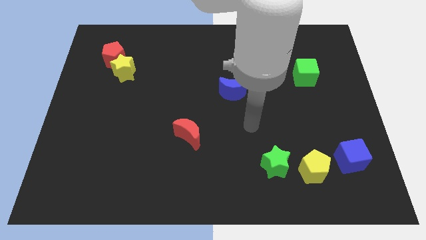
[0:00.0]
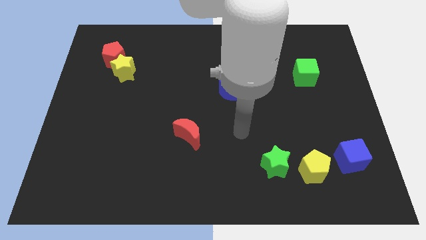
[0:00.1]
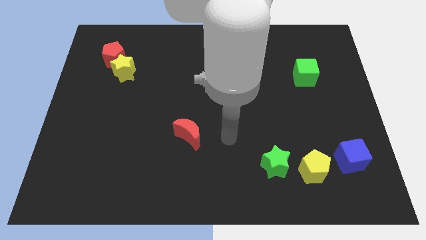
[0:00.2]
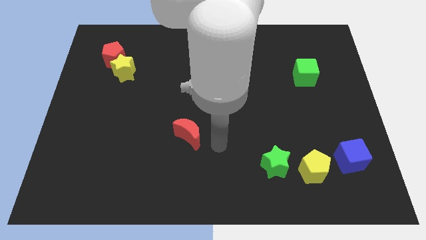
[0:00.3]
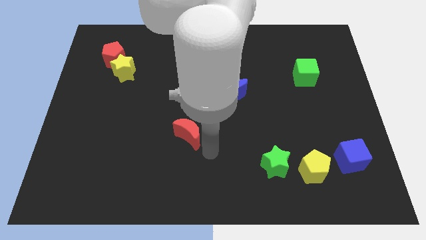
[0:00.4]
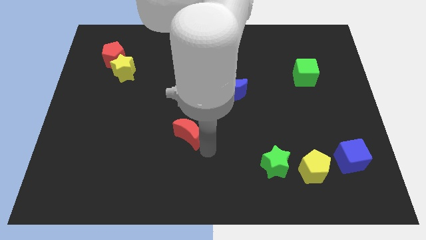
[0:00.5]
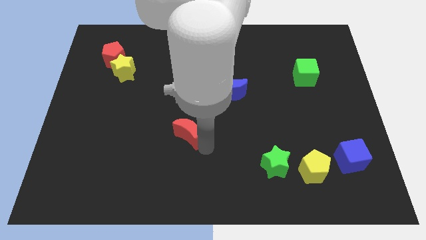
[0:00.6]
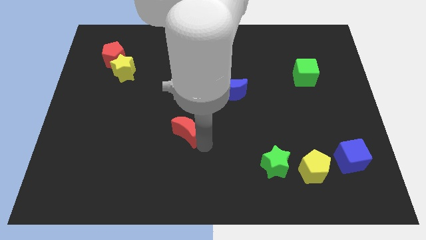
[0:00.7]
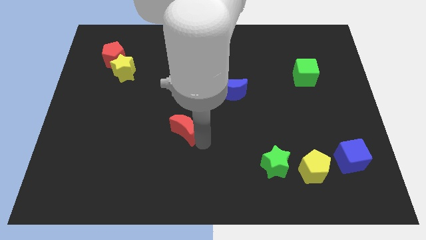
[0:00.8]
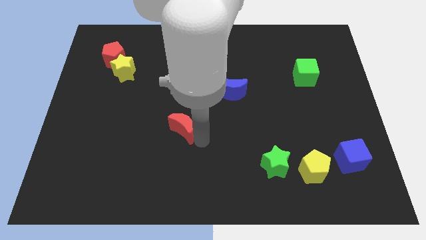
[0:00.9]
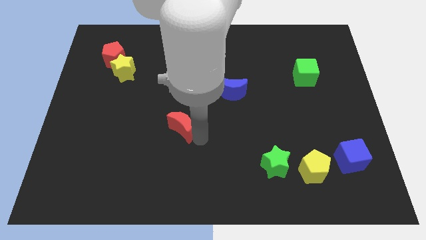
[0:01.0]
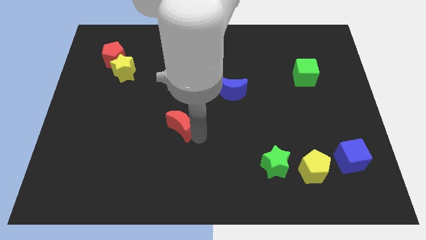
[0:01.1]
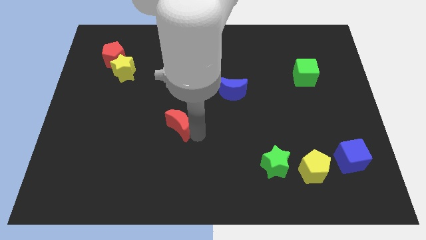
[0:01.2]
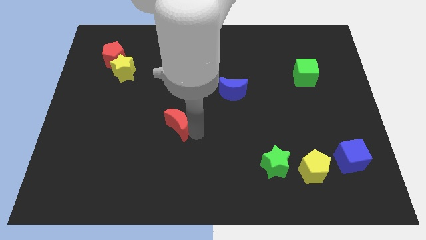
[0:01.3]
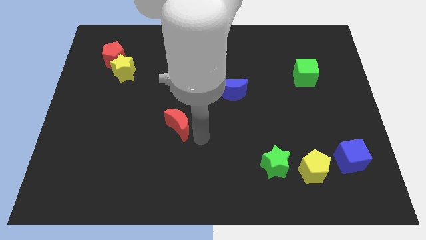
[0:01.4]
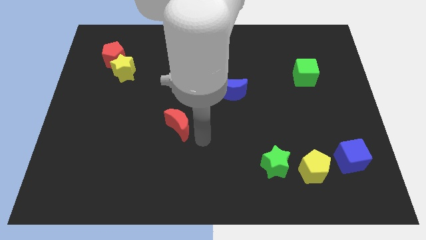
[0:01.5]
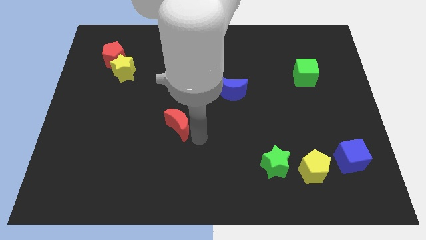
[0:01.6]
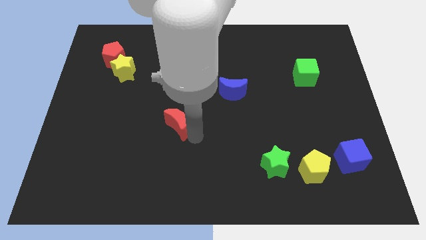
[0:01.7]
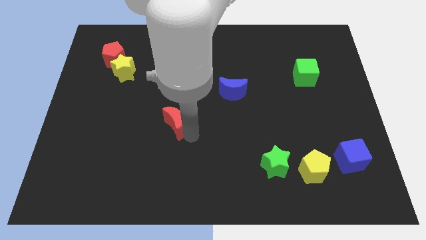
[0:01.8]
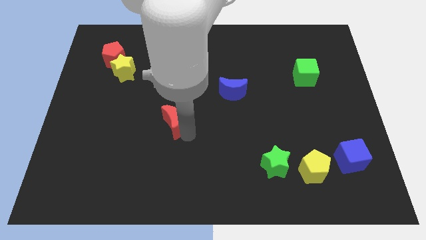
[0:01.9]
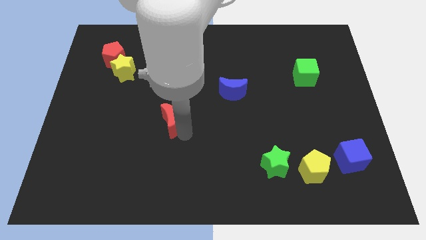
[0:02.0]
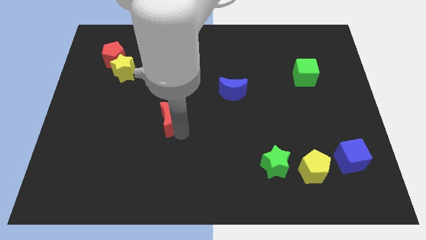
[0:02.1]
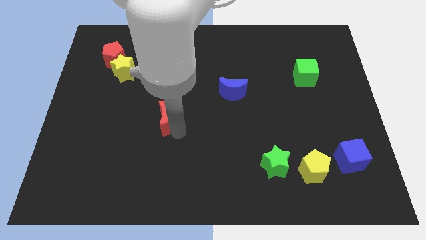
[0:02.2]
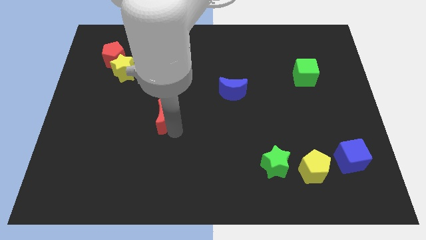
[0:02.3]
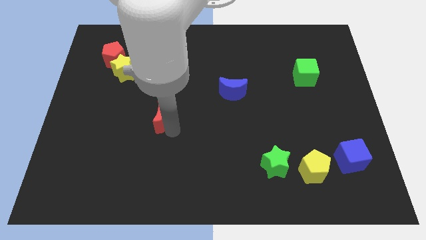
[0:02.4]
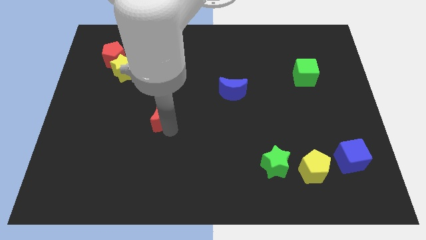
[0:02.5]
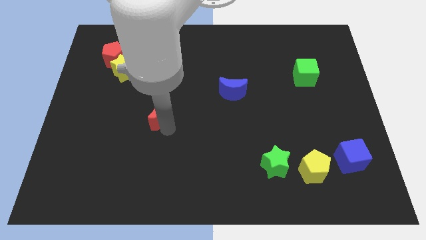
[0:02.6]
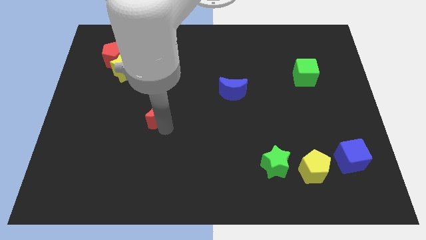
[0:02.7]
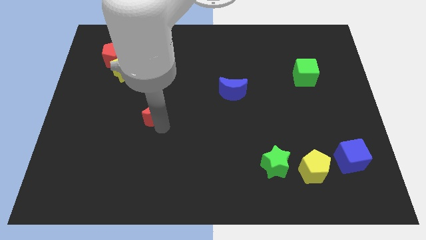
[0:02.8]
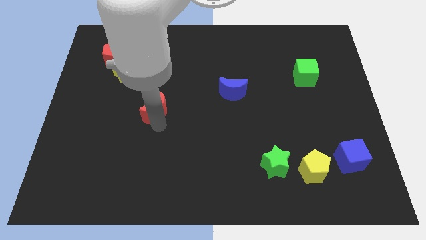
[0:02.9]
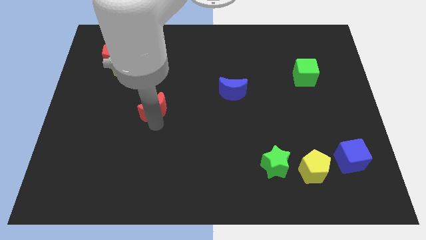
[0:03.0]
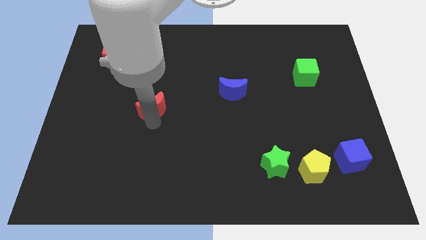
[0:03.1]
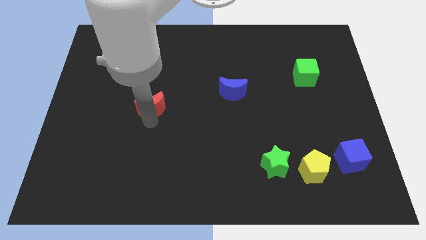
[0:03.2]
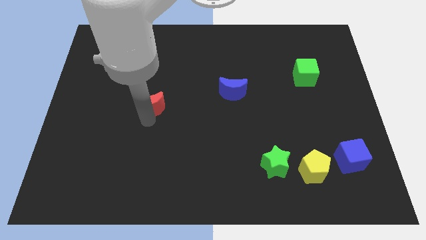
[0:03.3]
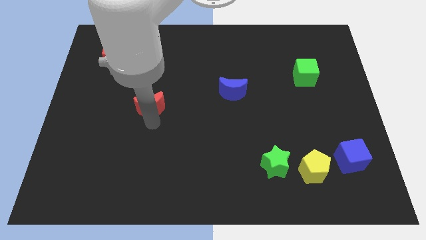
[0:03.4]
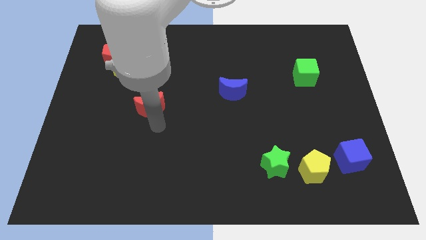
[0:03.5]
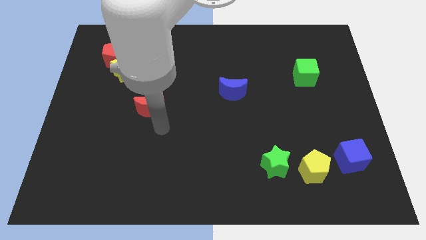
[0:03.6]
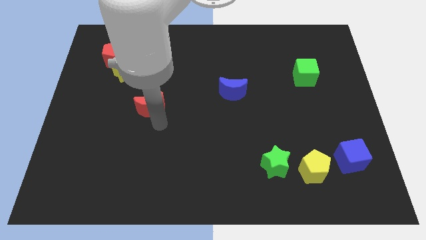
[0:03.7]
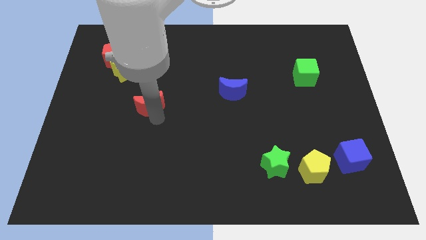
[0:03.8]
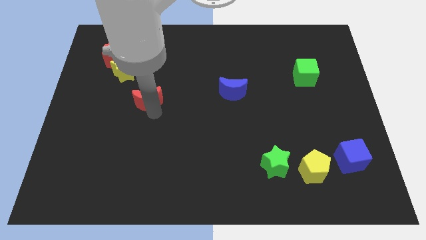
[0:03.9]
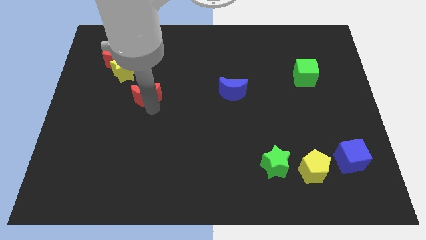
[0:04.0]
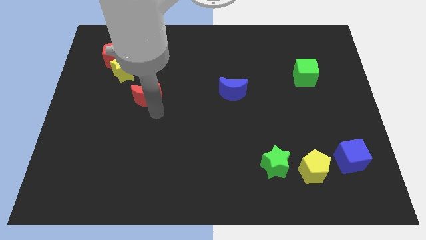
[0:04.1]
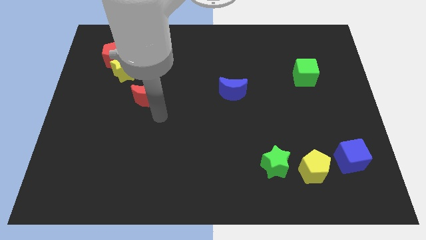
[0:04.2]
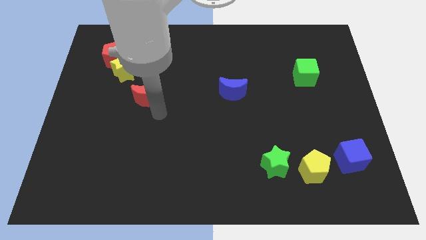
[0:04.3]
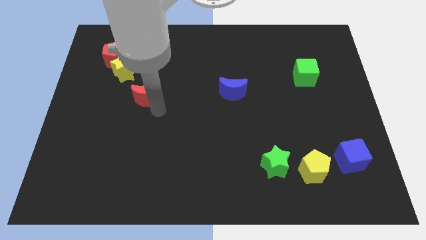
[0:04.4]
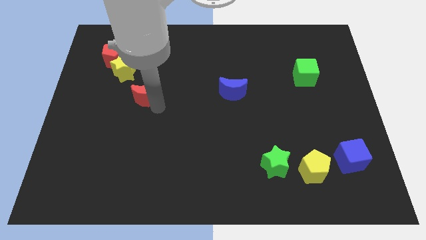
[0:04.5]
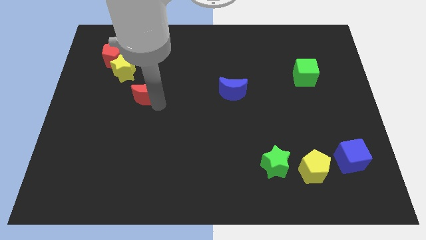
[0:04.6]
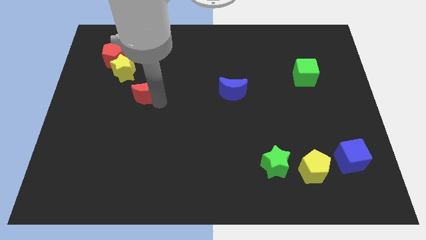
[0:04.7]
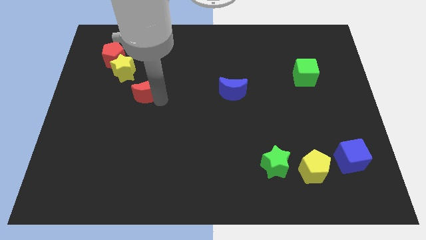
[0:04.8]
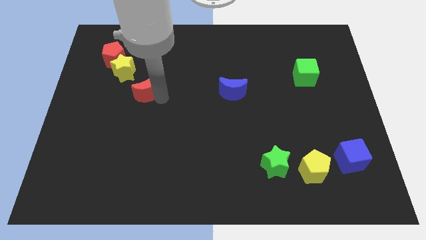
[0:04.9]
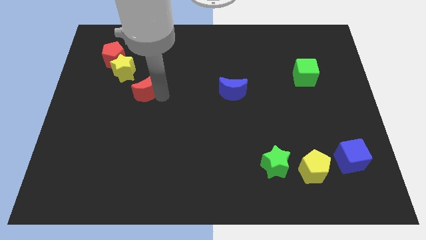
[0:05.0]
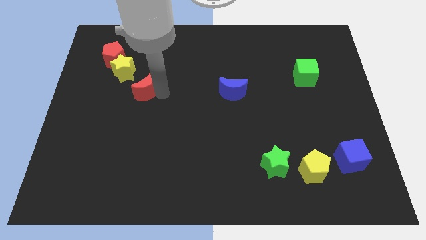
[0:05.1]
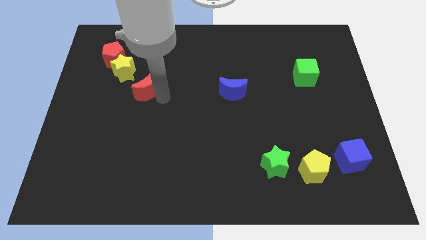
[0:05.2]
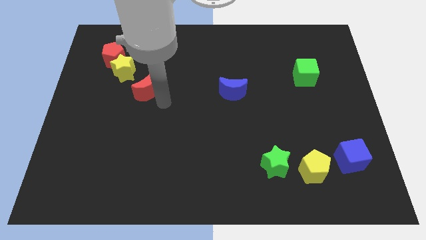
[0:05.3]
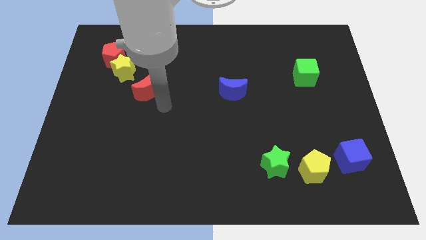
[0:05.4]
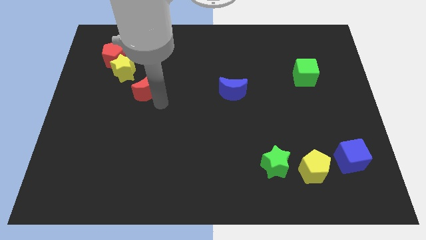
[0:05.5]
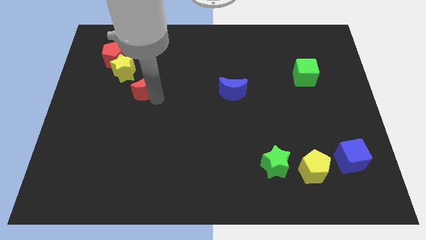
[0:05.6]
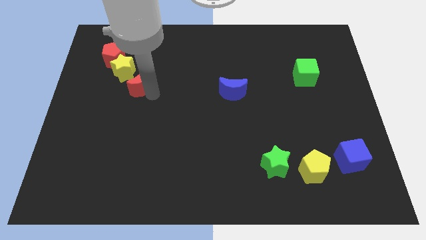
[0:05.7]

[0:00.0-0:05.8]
move the red moon to the bottom right of the red pentagon

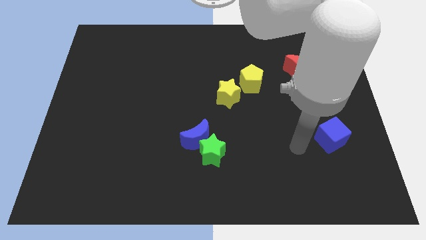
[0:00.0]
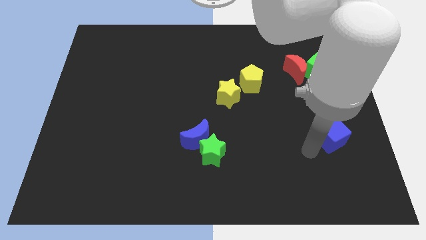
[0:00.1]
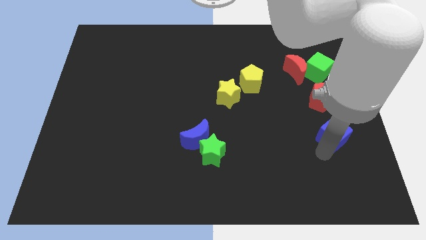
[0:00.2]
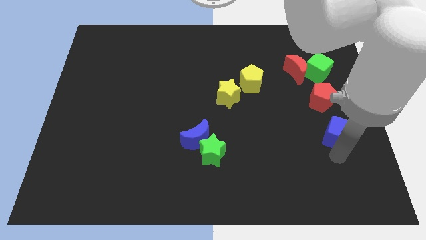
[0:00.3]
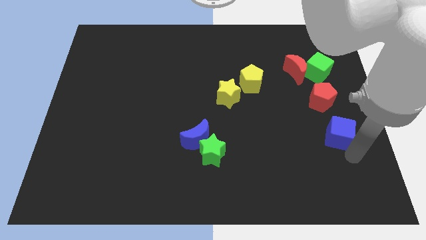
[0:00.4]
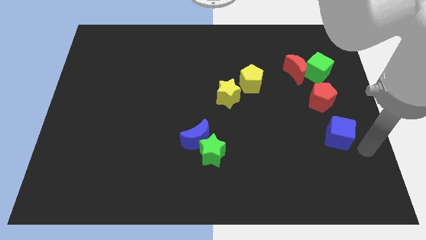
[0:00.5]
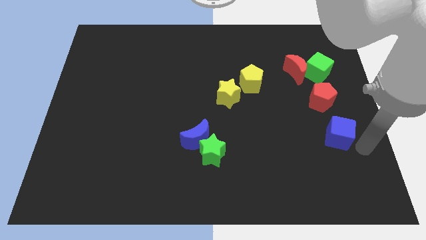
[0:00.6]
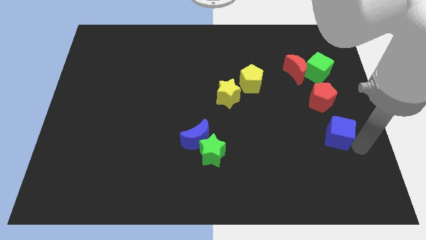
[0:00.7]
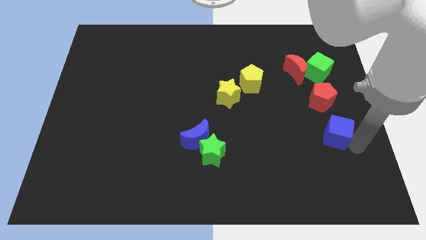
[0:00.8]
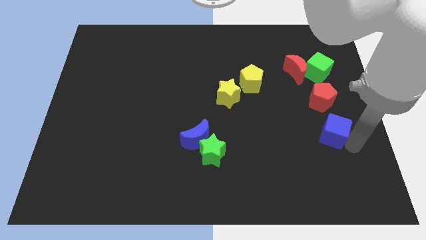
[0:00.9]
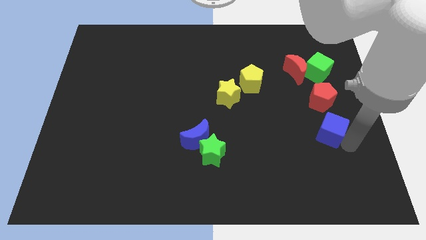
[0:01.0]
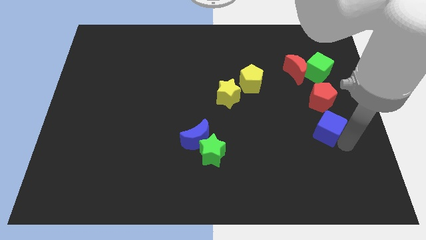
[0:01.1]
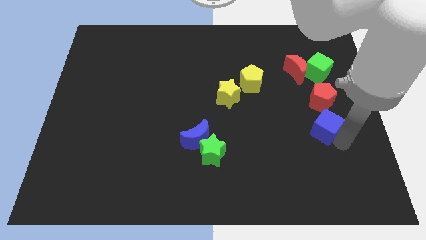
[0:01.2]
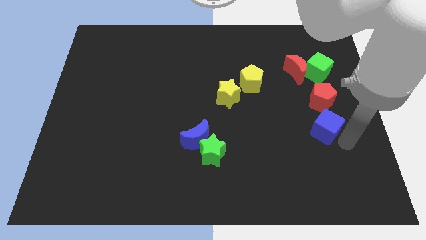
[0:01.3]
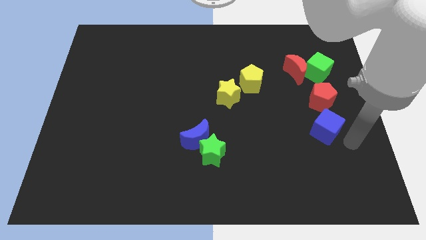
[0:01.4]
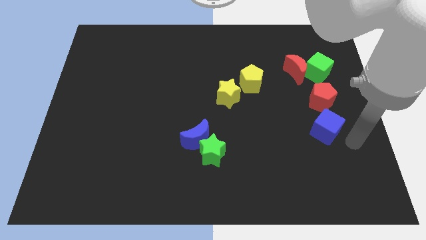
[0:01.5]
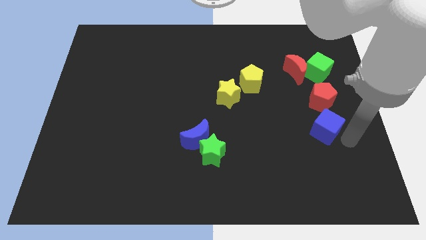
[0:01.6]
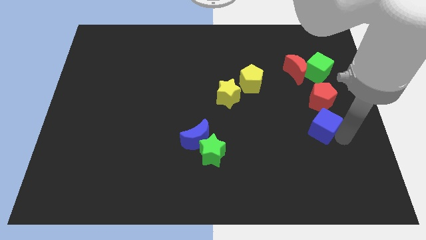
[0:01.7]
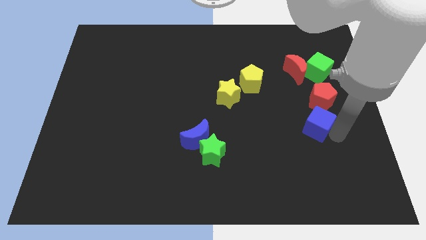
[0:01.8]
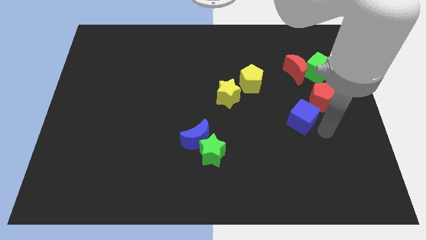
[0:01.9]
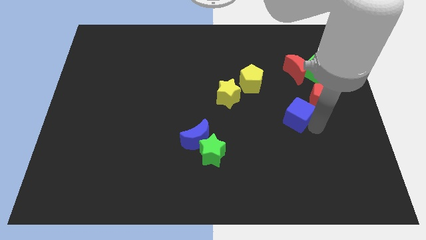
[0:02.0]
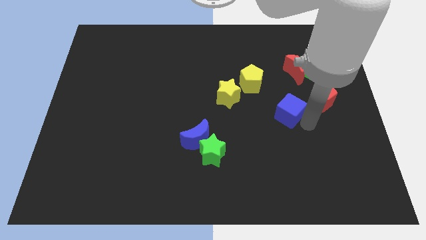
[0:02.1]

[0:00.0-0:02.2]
push the blue cube to the bottom right of the yellow pentagon

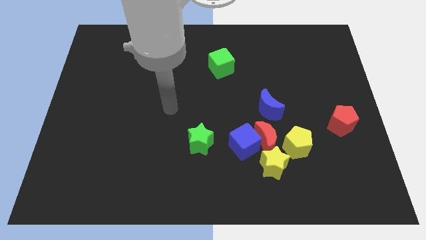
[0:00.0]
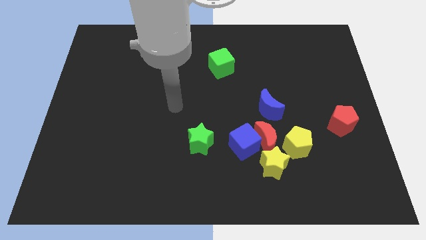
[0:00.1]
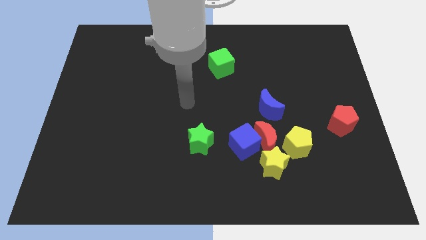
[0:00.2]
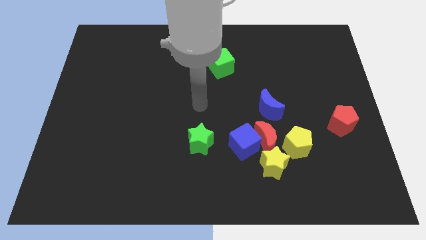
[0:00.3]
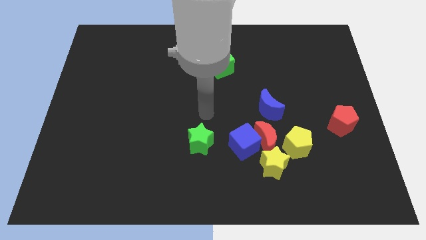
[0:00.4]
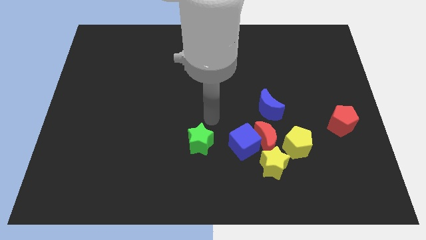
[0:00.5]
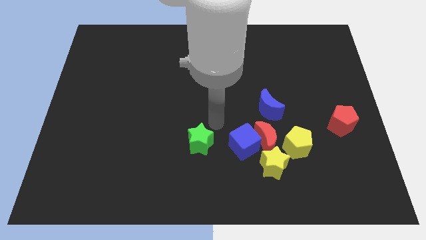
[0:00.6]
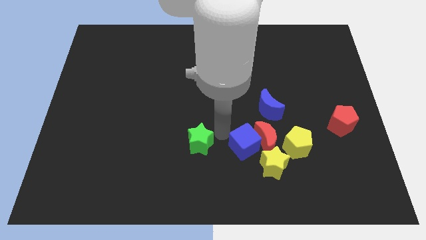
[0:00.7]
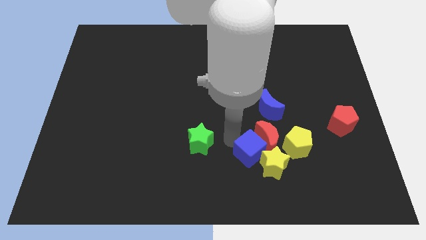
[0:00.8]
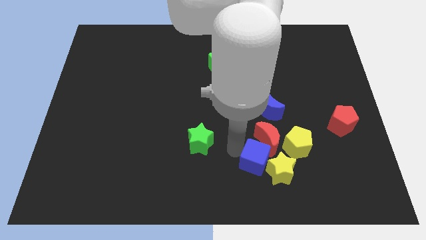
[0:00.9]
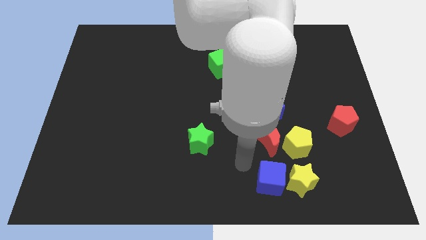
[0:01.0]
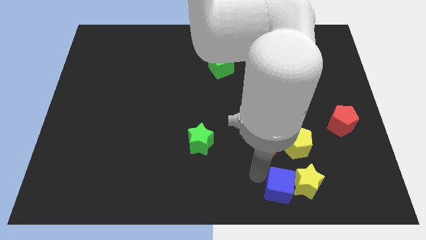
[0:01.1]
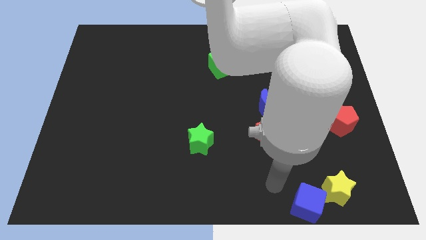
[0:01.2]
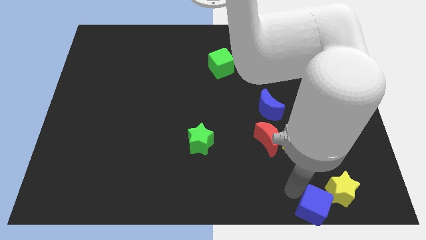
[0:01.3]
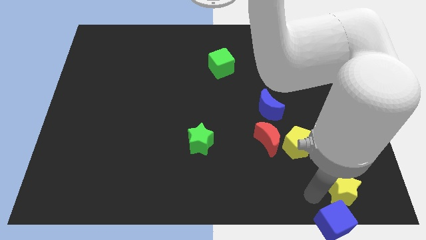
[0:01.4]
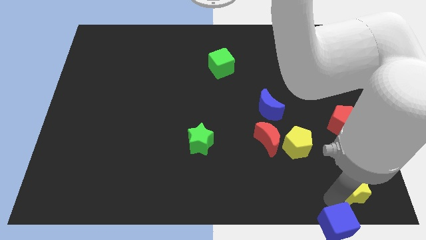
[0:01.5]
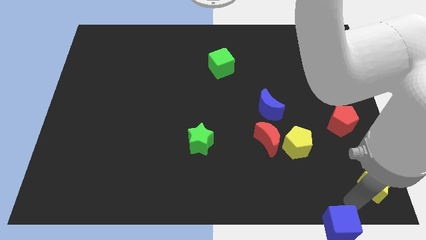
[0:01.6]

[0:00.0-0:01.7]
move the yellow star to the bottom side of the red pentagon
